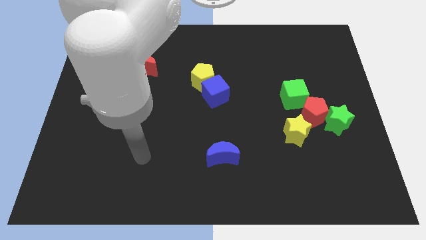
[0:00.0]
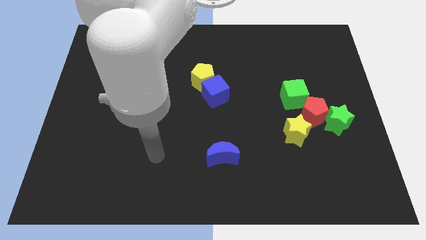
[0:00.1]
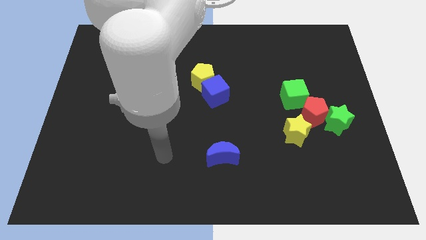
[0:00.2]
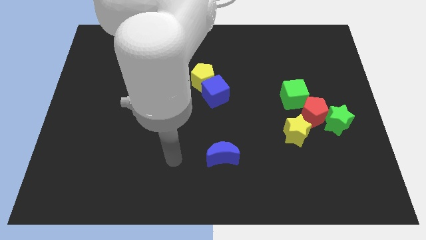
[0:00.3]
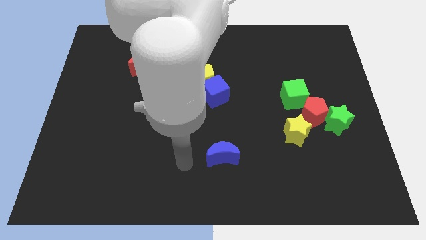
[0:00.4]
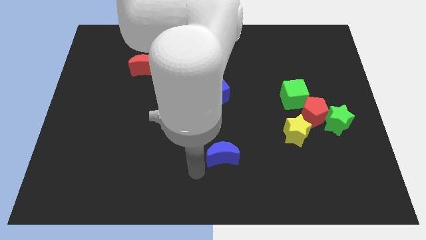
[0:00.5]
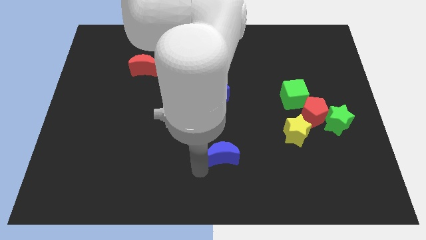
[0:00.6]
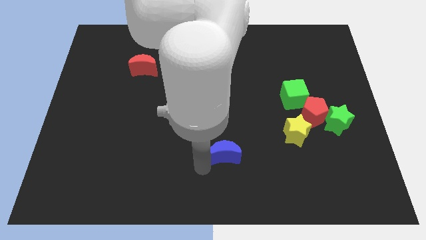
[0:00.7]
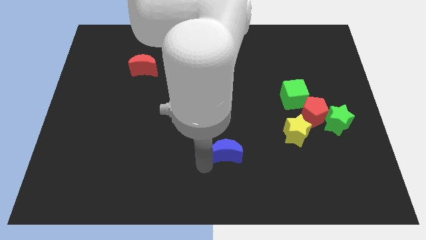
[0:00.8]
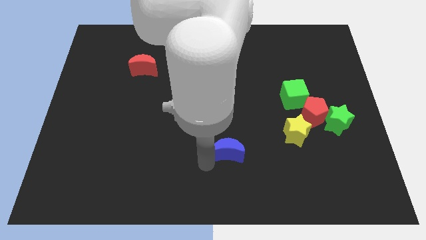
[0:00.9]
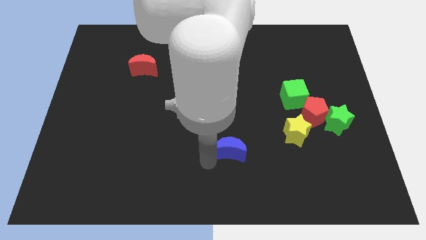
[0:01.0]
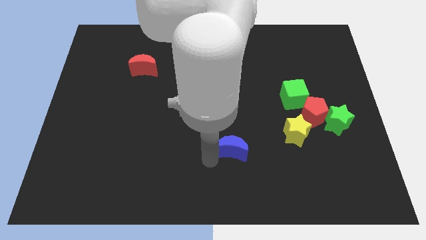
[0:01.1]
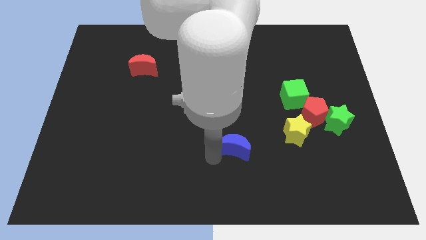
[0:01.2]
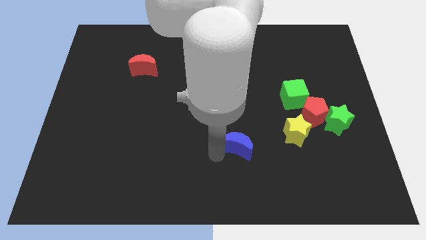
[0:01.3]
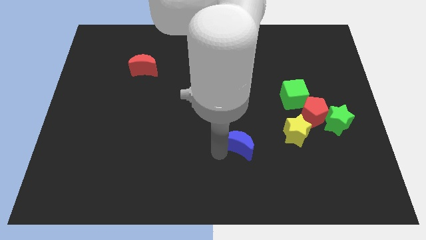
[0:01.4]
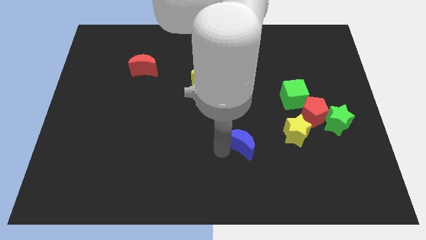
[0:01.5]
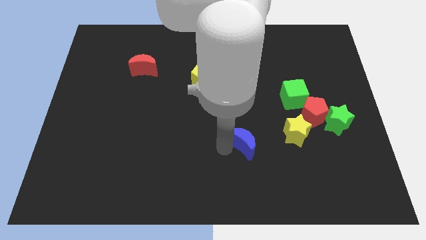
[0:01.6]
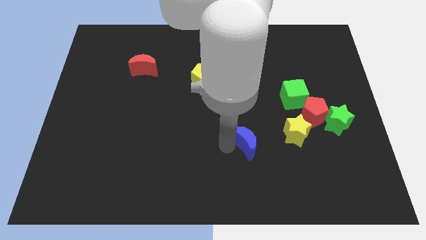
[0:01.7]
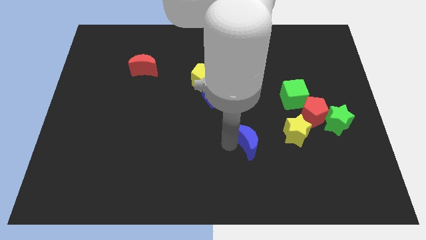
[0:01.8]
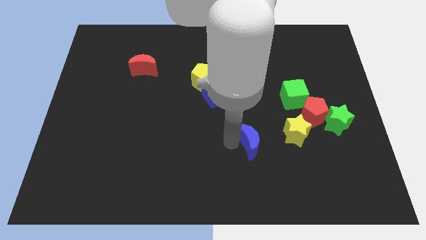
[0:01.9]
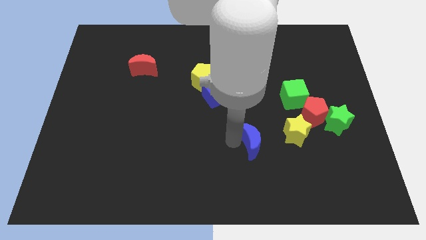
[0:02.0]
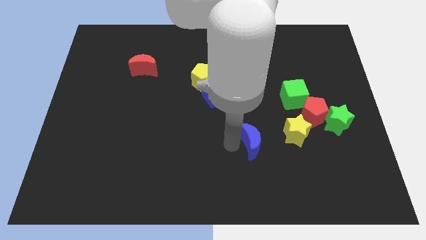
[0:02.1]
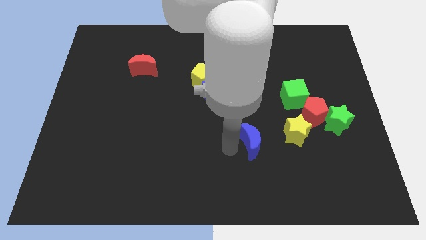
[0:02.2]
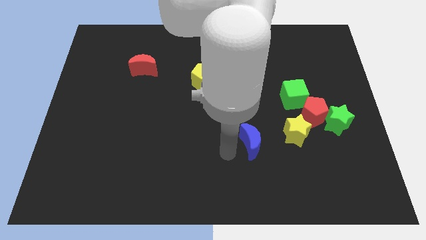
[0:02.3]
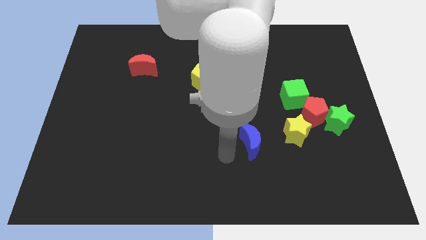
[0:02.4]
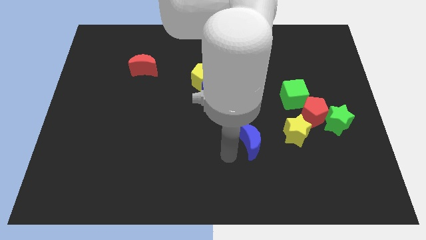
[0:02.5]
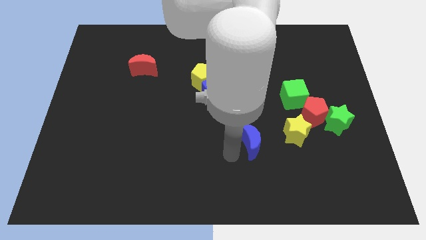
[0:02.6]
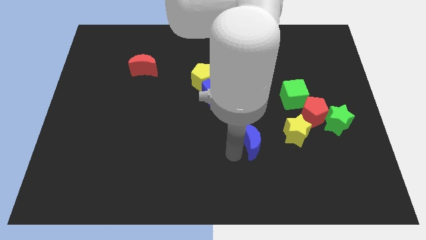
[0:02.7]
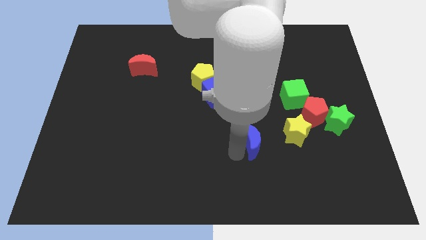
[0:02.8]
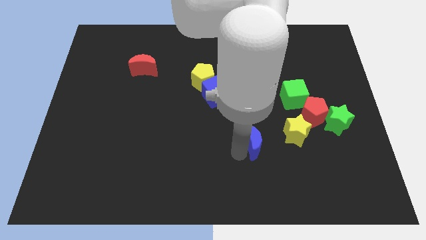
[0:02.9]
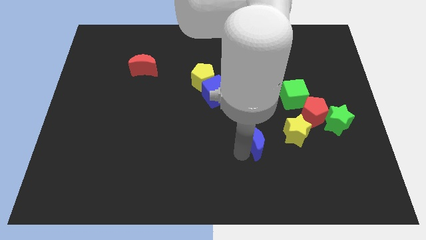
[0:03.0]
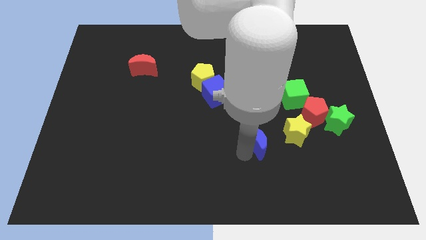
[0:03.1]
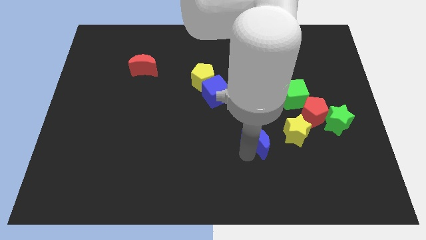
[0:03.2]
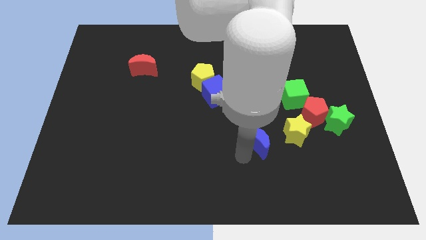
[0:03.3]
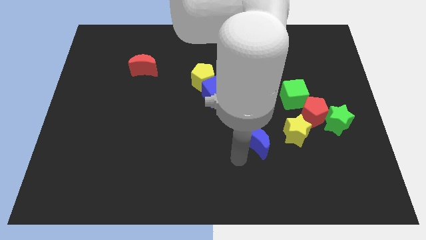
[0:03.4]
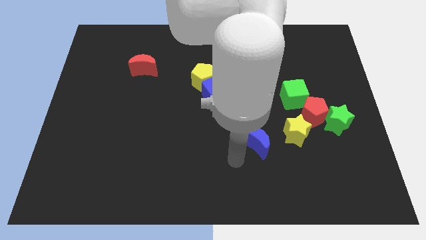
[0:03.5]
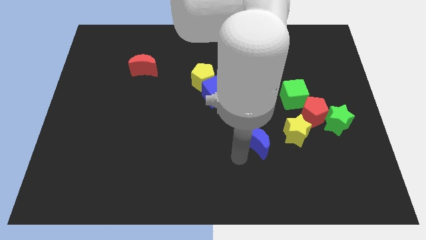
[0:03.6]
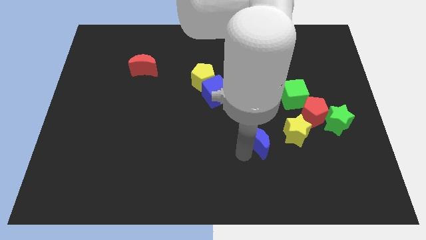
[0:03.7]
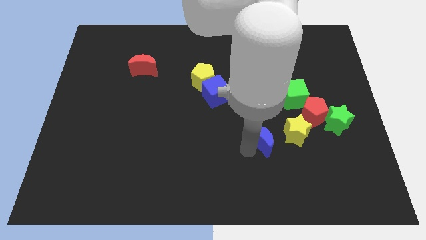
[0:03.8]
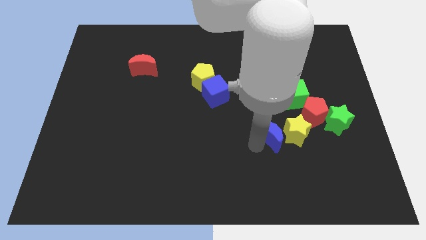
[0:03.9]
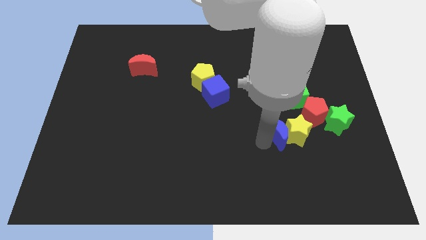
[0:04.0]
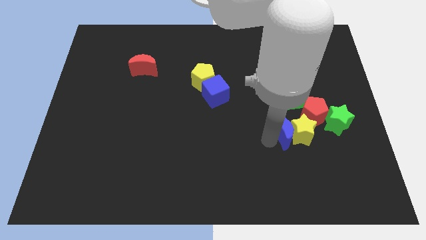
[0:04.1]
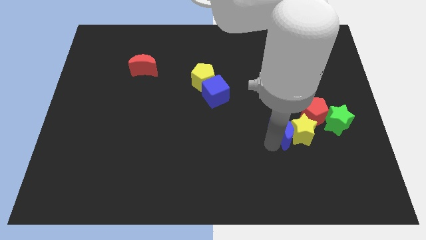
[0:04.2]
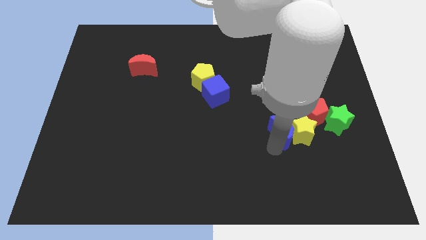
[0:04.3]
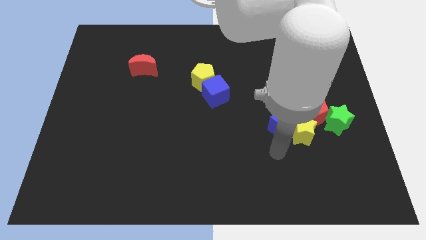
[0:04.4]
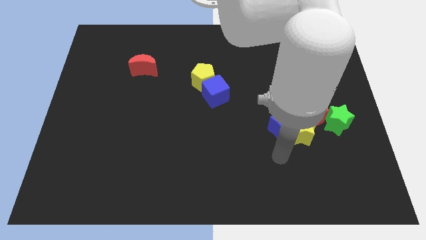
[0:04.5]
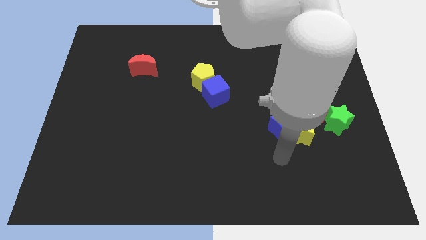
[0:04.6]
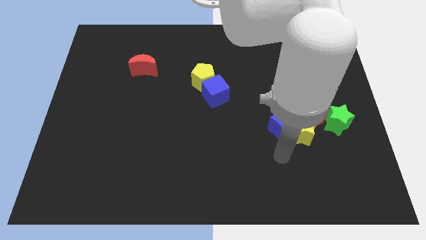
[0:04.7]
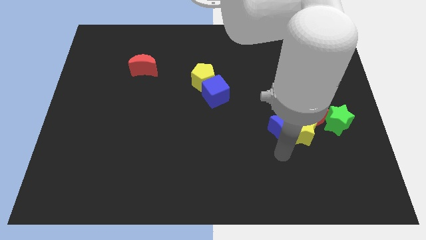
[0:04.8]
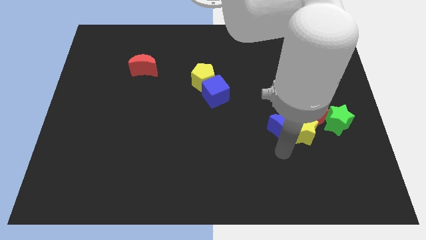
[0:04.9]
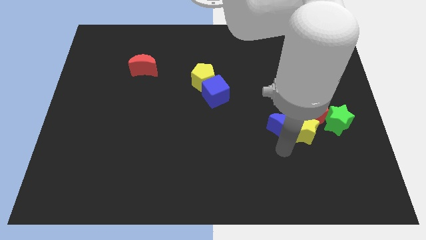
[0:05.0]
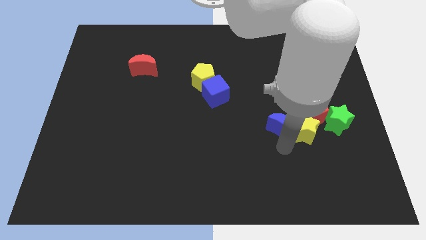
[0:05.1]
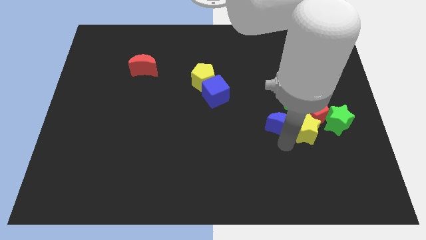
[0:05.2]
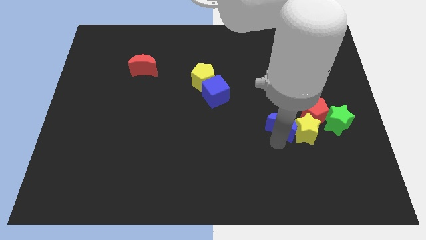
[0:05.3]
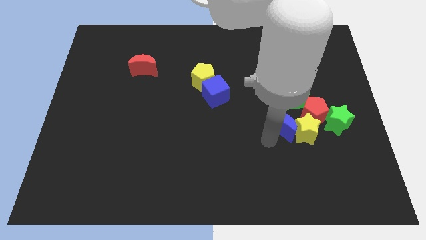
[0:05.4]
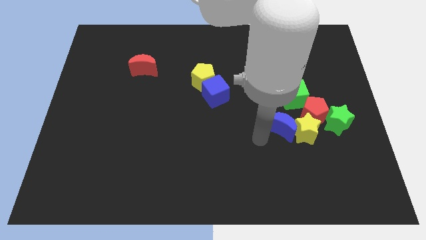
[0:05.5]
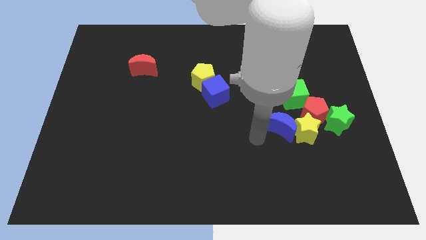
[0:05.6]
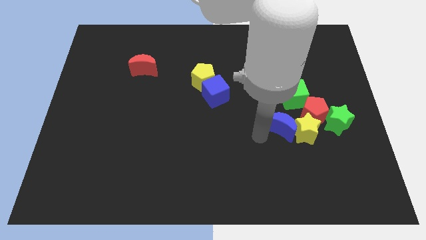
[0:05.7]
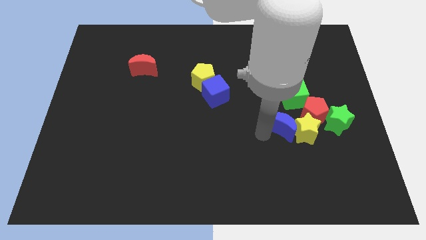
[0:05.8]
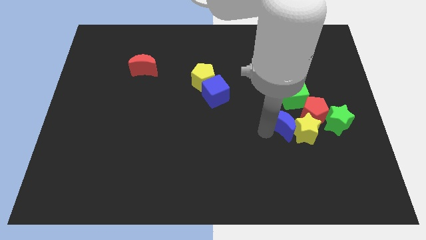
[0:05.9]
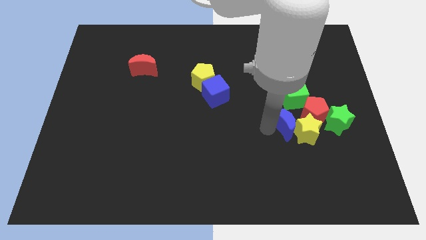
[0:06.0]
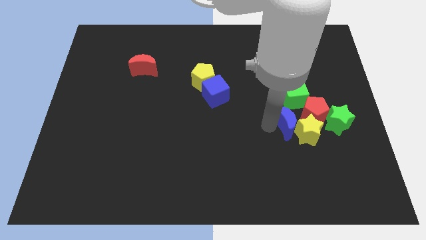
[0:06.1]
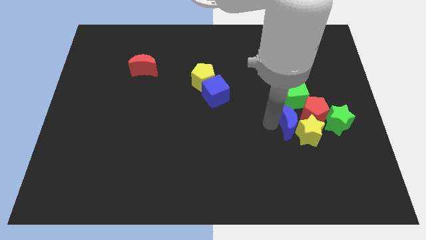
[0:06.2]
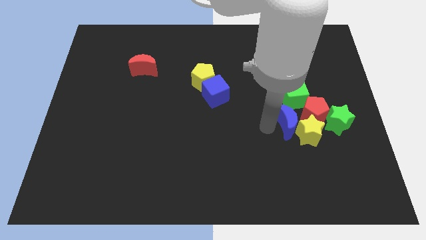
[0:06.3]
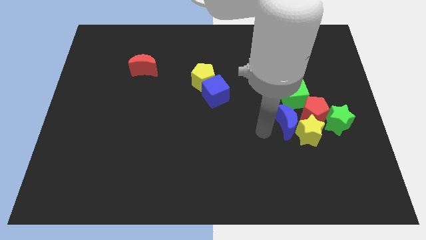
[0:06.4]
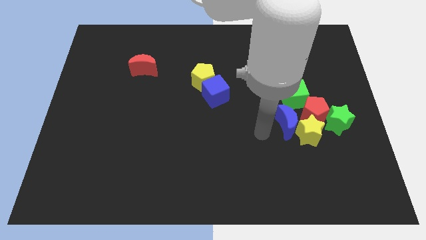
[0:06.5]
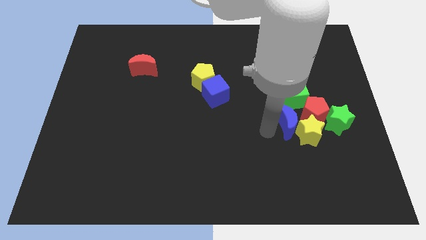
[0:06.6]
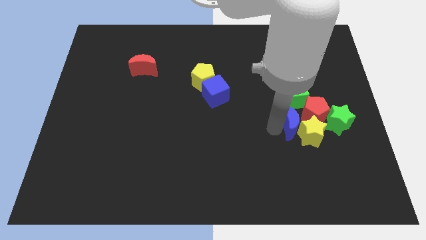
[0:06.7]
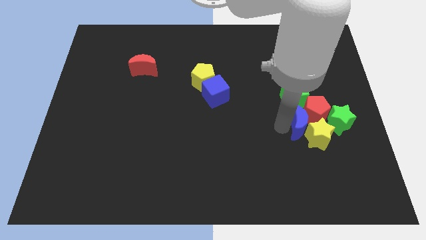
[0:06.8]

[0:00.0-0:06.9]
push the blue moon towards the red pentagon
